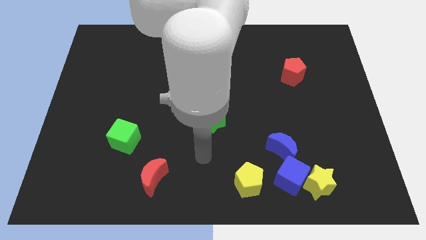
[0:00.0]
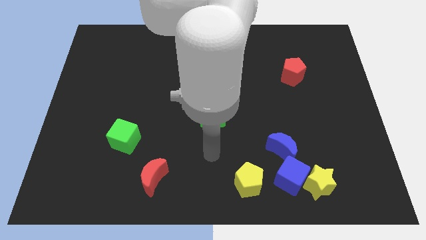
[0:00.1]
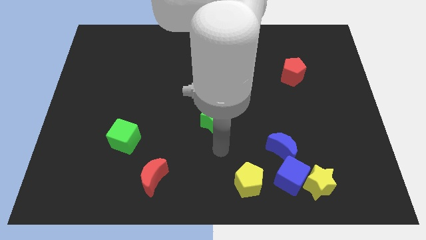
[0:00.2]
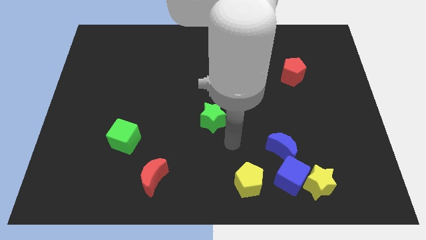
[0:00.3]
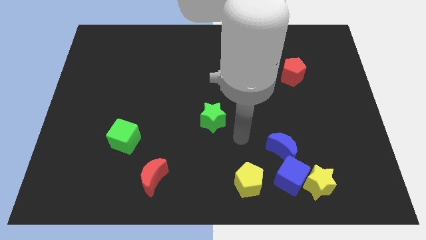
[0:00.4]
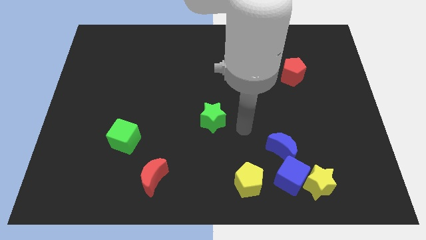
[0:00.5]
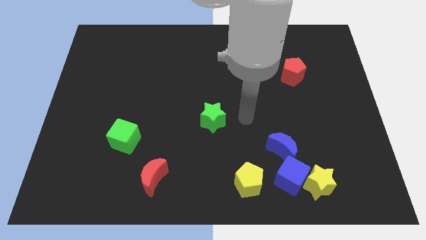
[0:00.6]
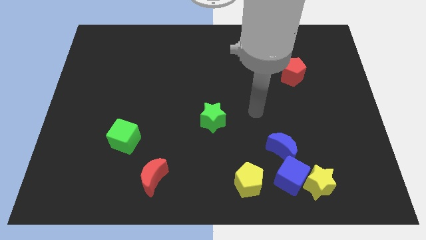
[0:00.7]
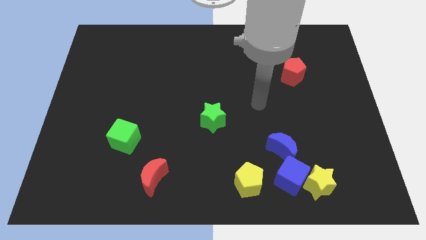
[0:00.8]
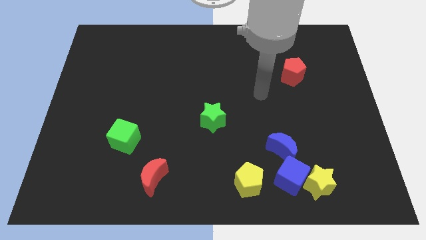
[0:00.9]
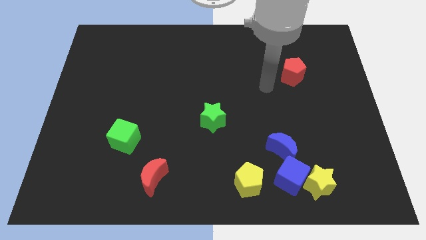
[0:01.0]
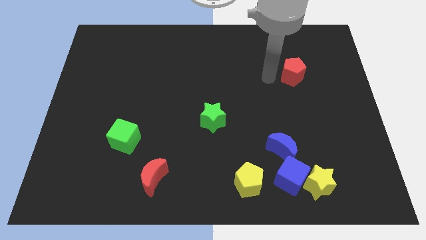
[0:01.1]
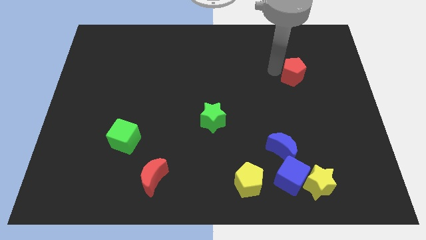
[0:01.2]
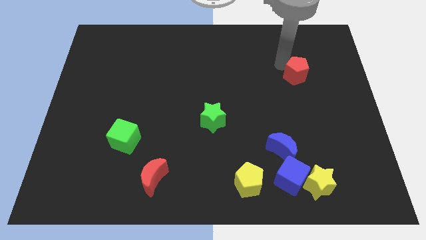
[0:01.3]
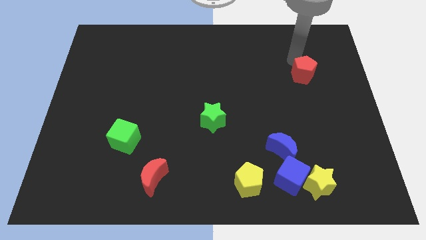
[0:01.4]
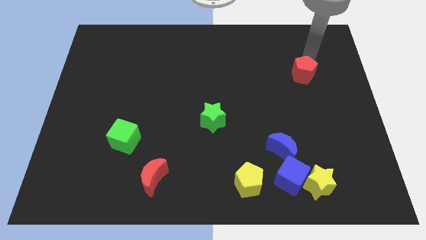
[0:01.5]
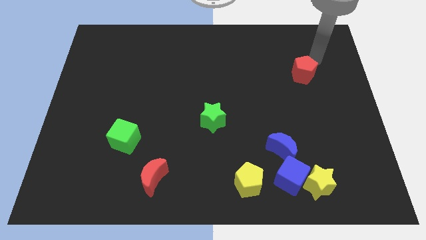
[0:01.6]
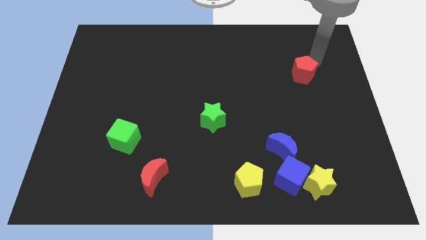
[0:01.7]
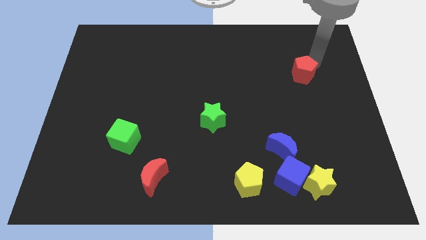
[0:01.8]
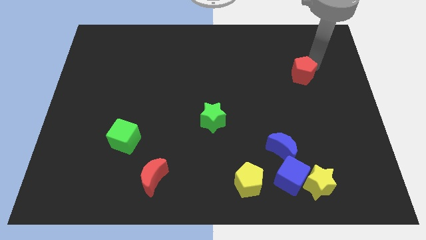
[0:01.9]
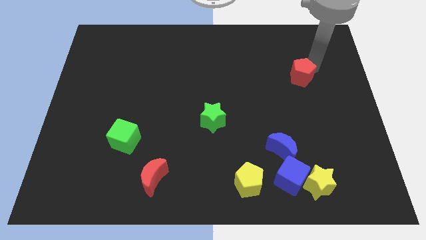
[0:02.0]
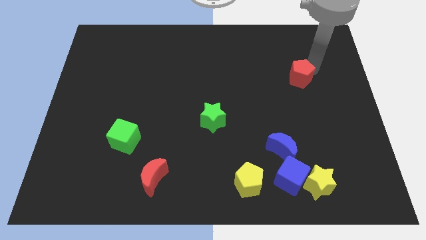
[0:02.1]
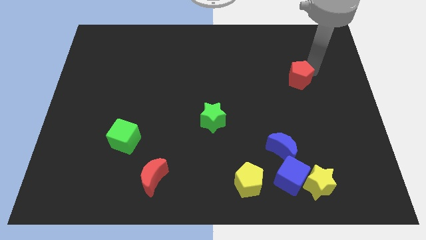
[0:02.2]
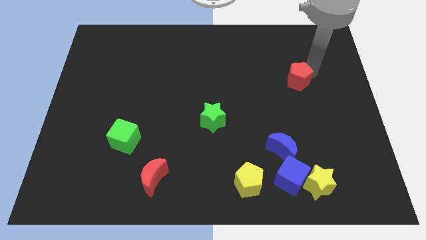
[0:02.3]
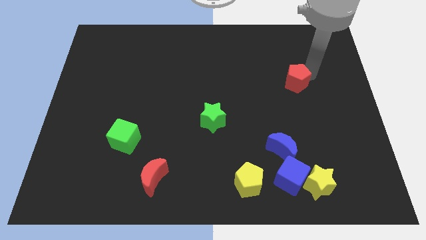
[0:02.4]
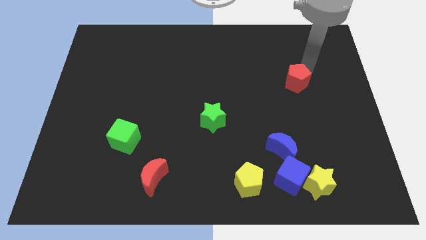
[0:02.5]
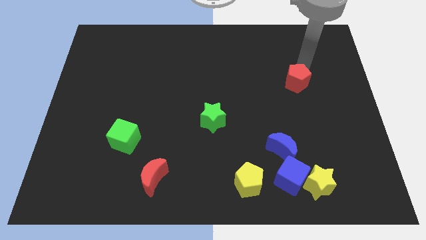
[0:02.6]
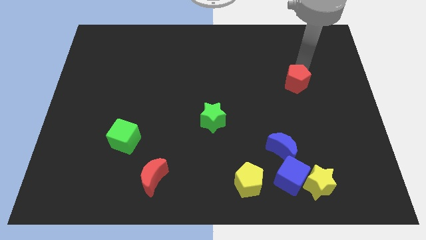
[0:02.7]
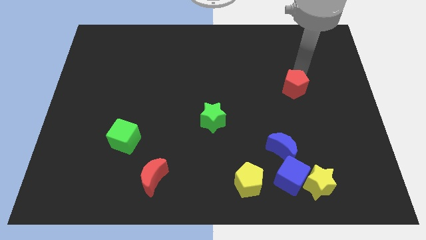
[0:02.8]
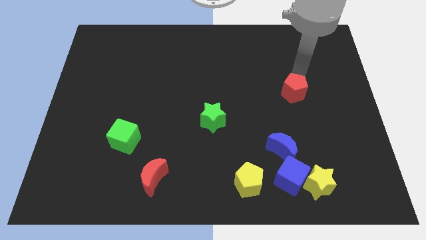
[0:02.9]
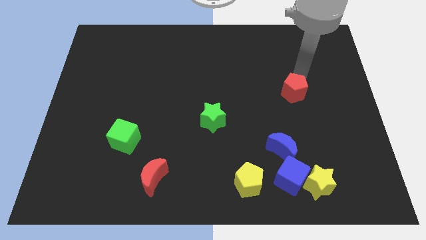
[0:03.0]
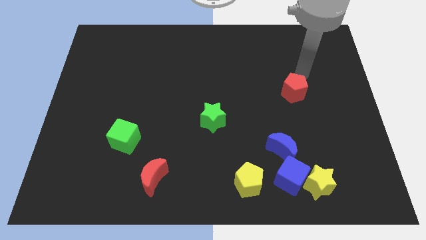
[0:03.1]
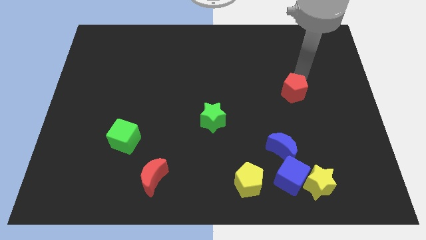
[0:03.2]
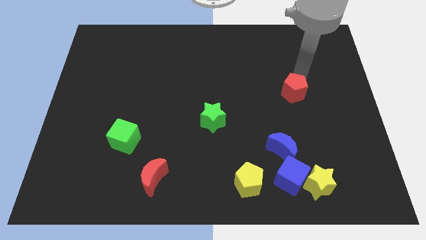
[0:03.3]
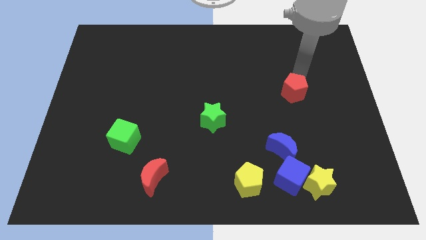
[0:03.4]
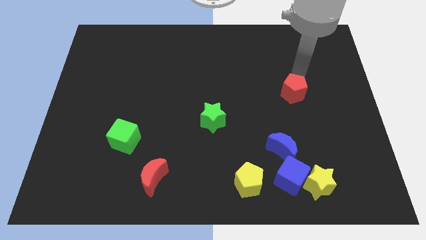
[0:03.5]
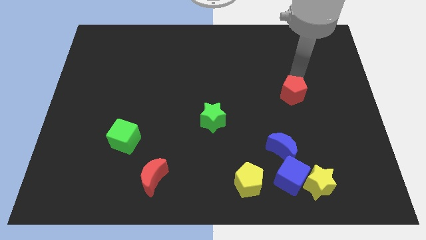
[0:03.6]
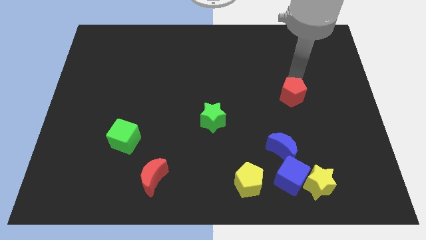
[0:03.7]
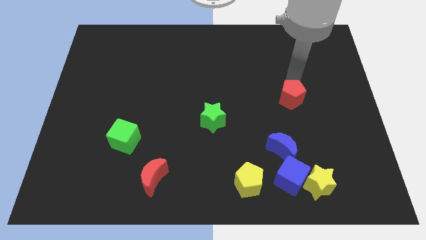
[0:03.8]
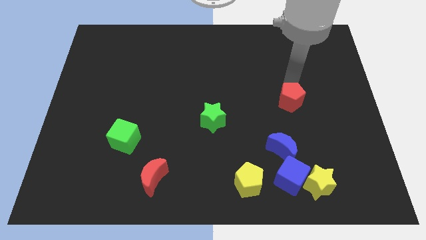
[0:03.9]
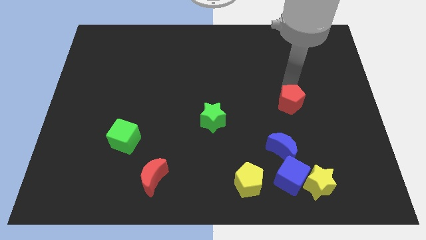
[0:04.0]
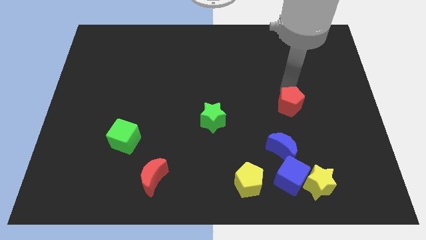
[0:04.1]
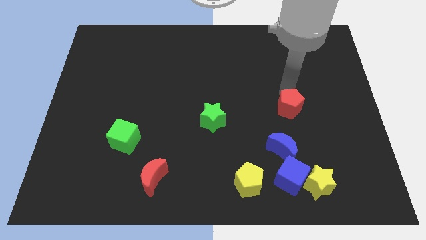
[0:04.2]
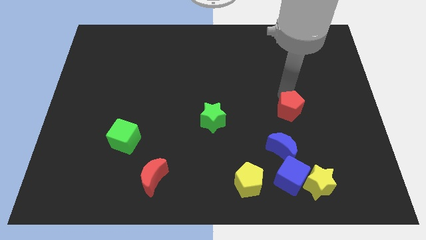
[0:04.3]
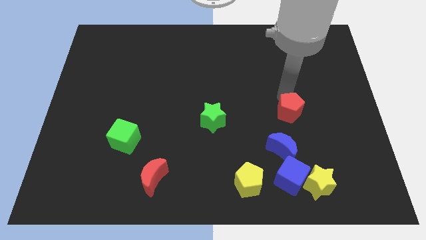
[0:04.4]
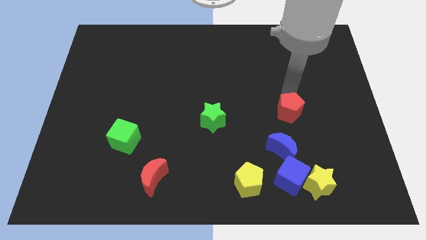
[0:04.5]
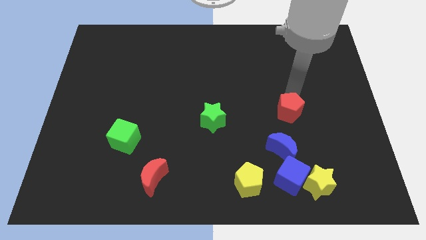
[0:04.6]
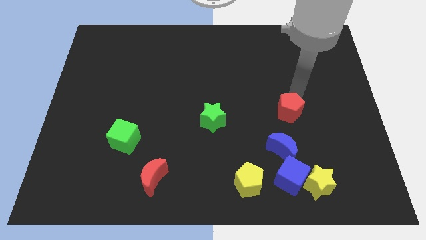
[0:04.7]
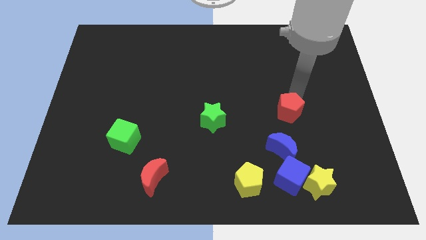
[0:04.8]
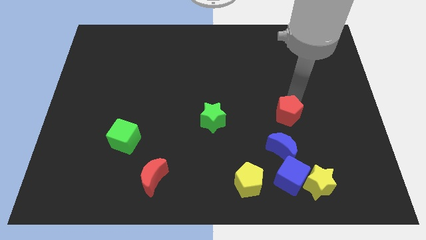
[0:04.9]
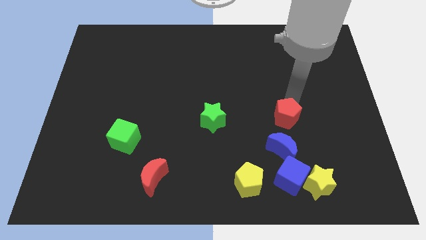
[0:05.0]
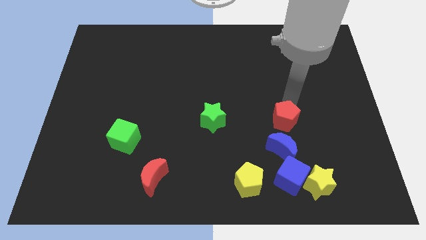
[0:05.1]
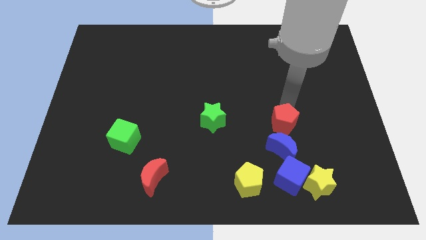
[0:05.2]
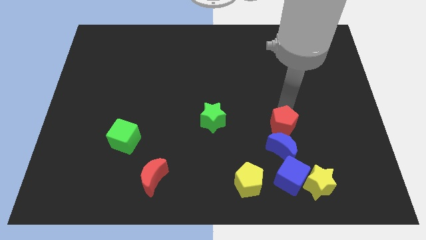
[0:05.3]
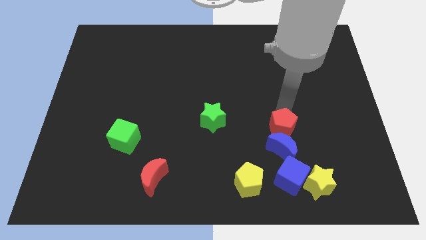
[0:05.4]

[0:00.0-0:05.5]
put the red pentagon to the blue moon

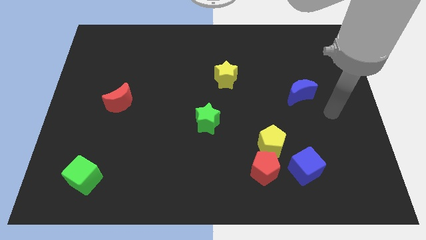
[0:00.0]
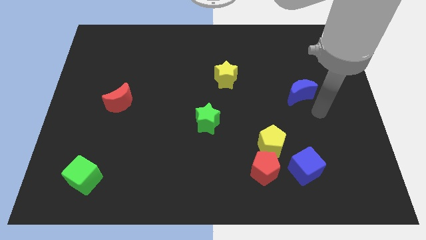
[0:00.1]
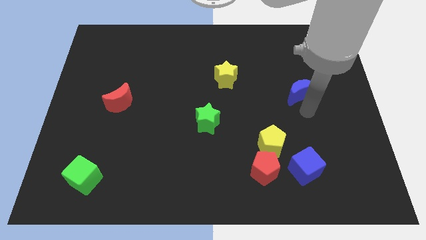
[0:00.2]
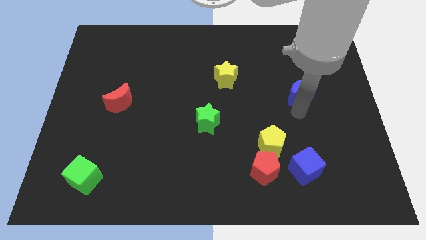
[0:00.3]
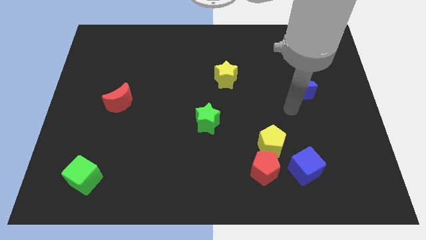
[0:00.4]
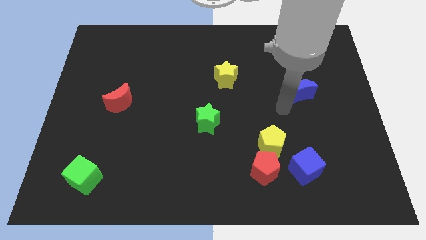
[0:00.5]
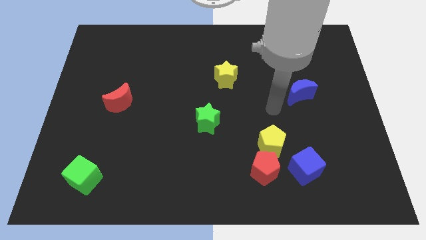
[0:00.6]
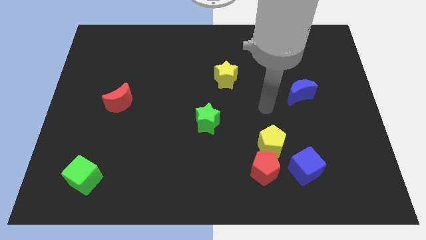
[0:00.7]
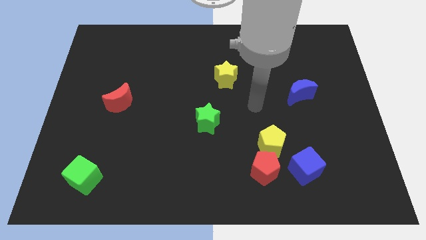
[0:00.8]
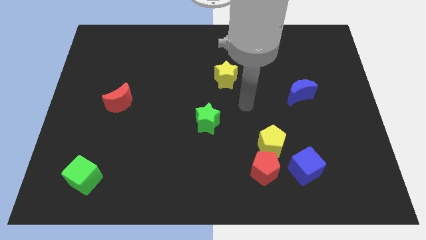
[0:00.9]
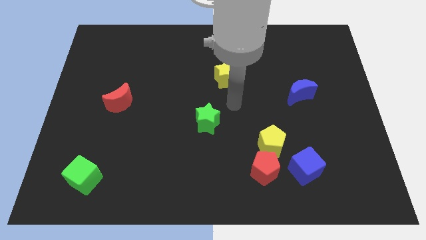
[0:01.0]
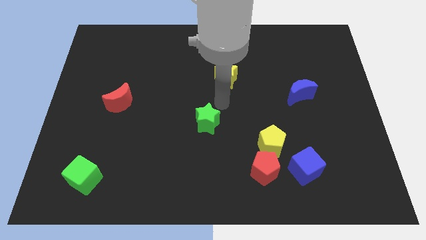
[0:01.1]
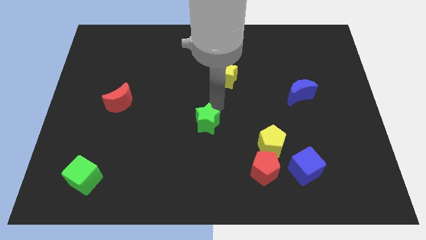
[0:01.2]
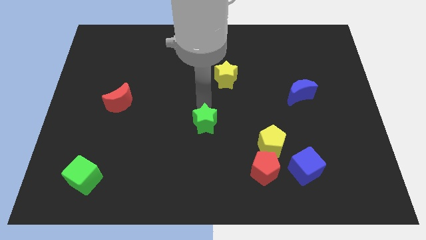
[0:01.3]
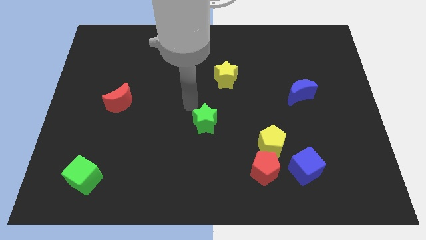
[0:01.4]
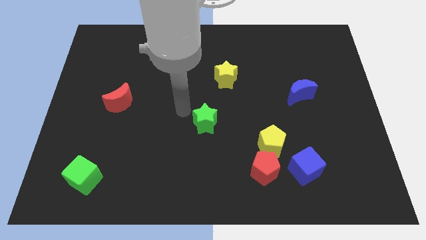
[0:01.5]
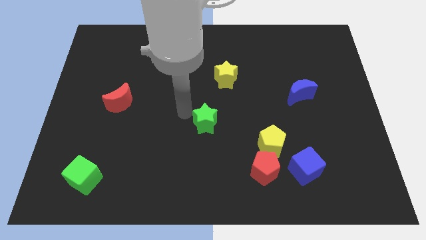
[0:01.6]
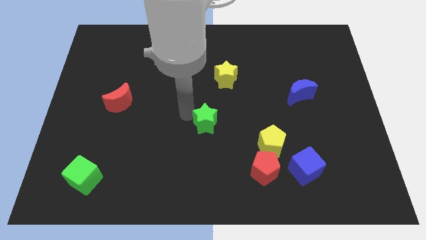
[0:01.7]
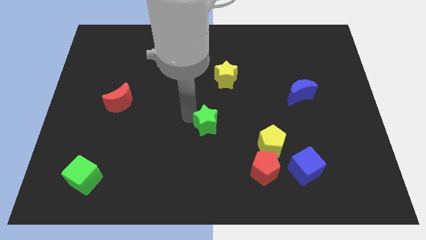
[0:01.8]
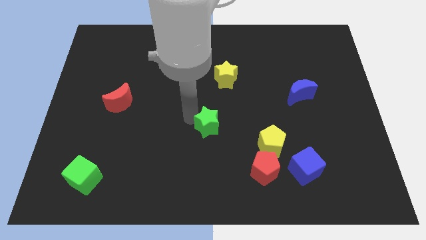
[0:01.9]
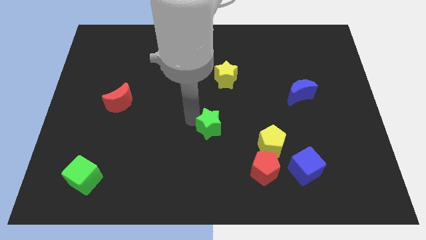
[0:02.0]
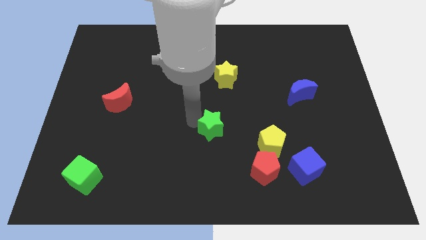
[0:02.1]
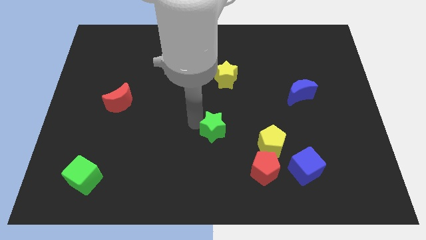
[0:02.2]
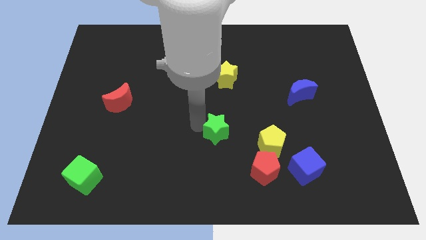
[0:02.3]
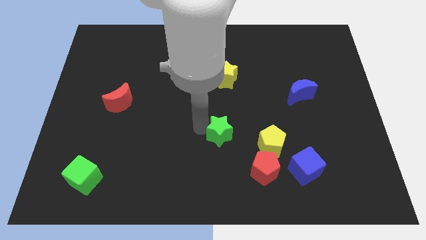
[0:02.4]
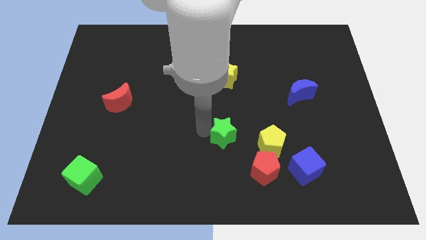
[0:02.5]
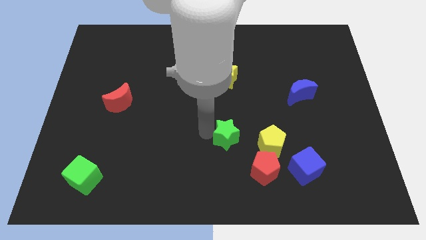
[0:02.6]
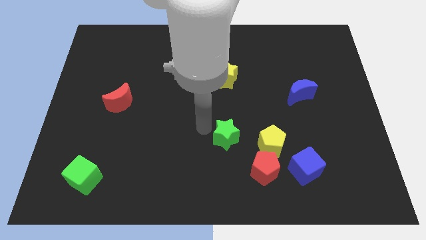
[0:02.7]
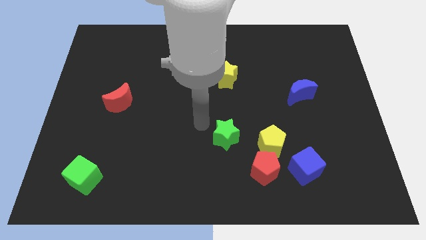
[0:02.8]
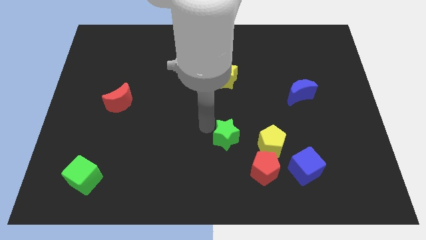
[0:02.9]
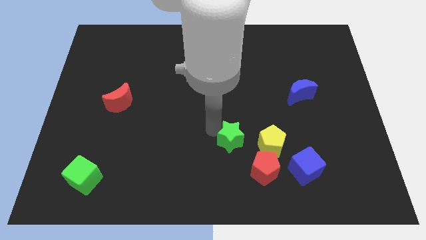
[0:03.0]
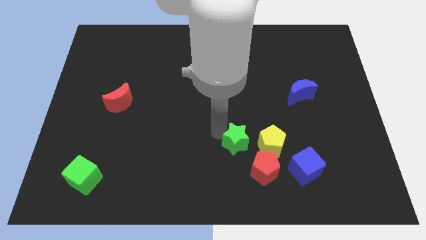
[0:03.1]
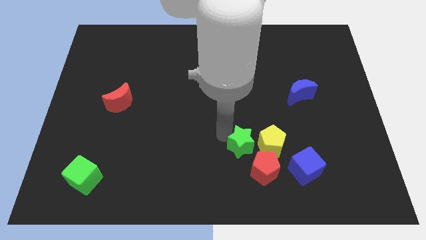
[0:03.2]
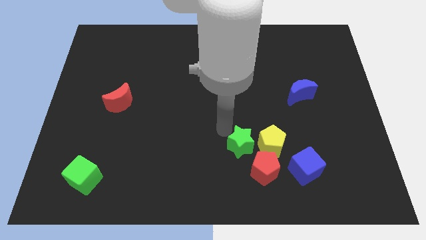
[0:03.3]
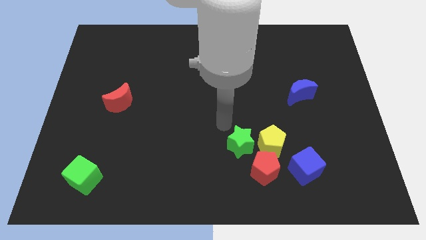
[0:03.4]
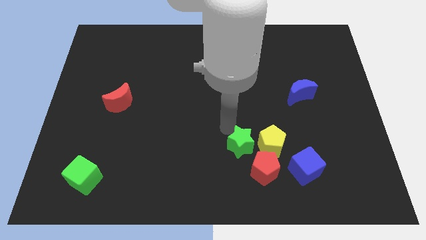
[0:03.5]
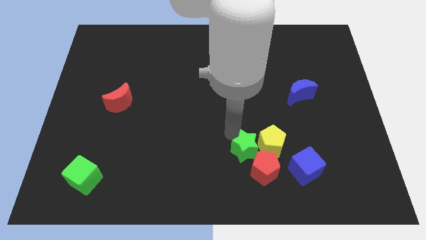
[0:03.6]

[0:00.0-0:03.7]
move the green star close to the red pentagon
